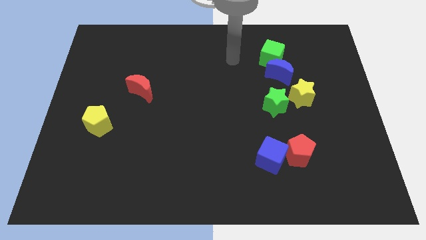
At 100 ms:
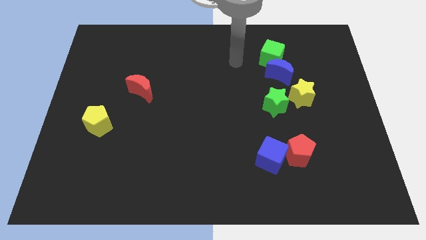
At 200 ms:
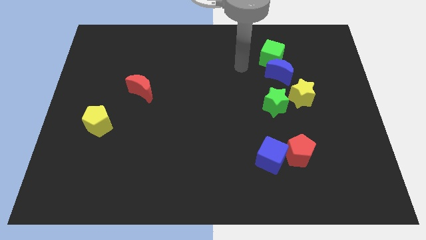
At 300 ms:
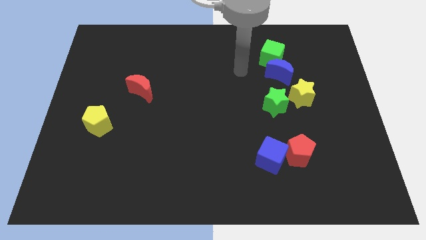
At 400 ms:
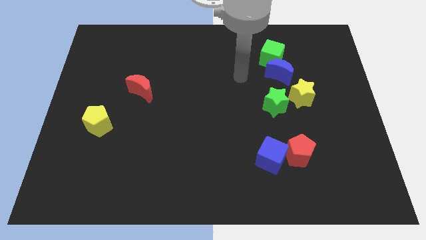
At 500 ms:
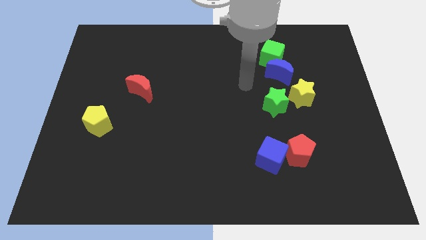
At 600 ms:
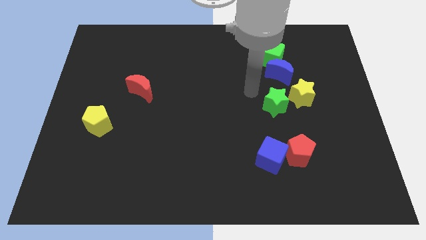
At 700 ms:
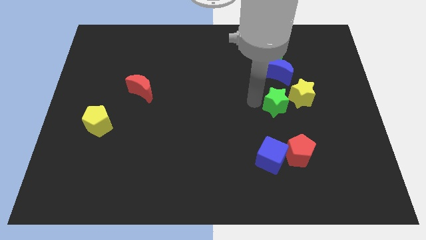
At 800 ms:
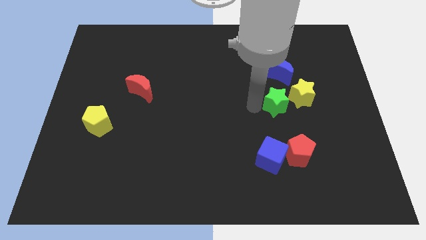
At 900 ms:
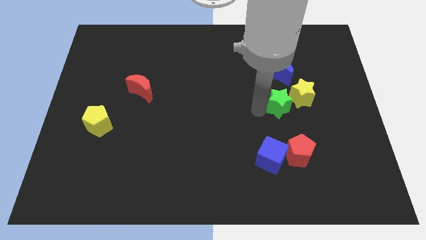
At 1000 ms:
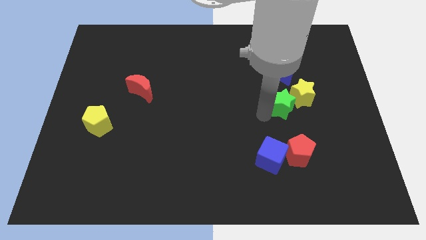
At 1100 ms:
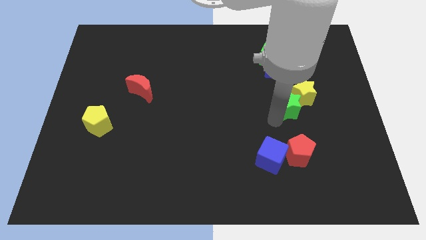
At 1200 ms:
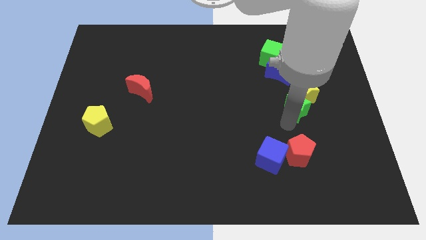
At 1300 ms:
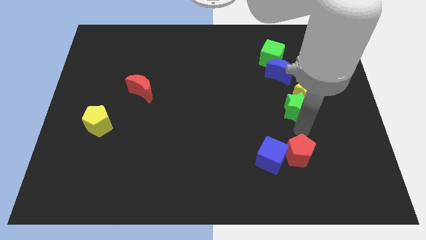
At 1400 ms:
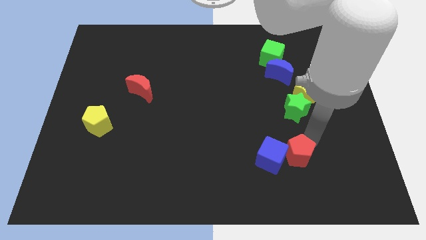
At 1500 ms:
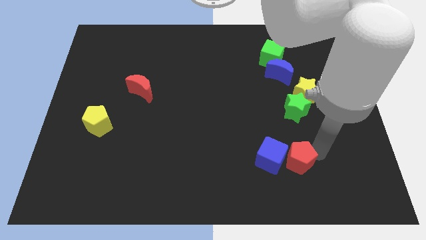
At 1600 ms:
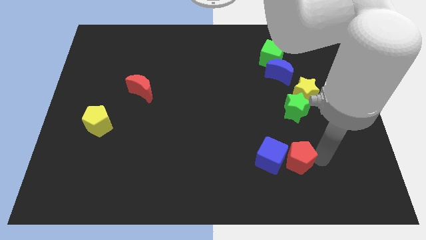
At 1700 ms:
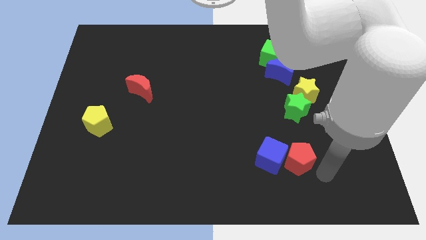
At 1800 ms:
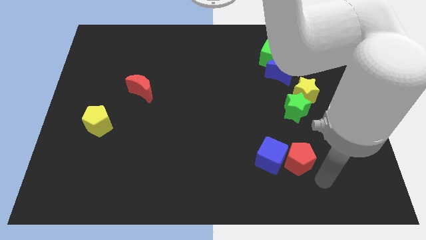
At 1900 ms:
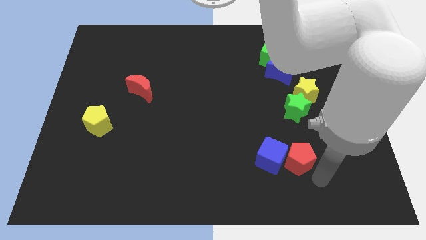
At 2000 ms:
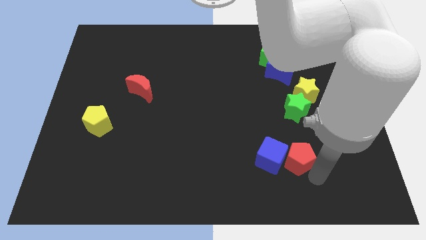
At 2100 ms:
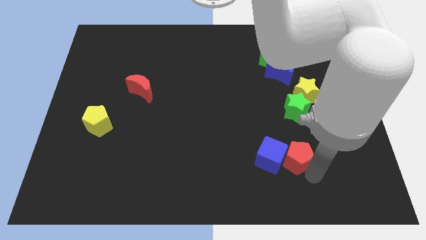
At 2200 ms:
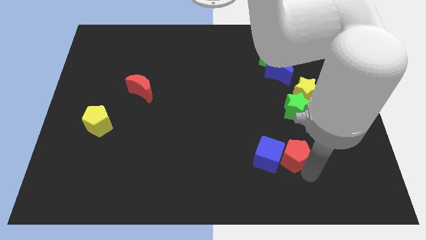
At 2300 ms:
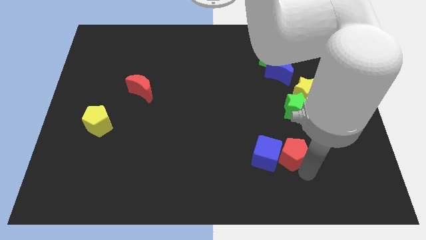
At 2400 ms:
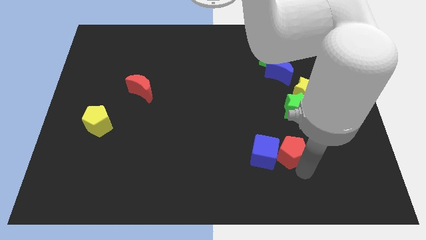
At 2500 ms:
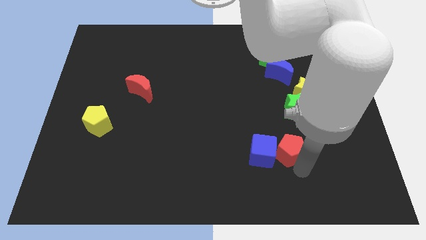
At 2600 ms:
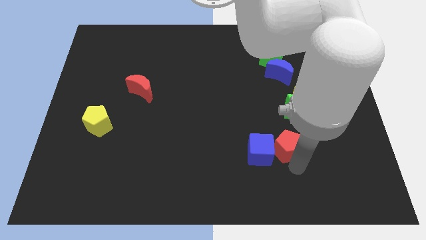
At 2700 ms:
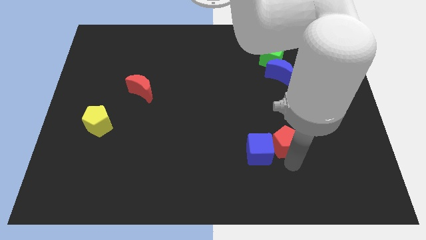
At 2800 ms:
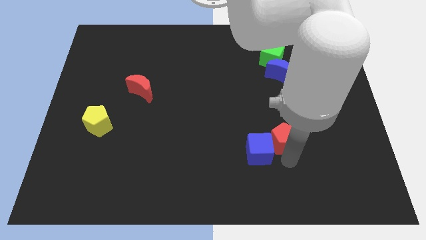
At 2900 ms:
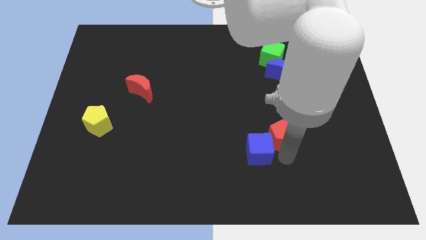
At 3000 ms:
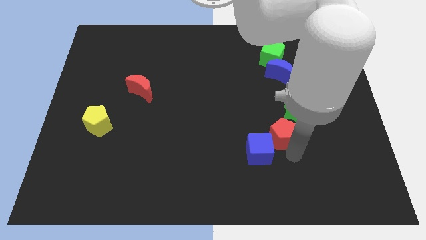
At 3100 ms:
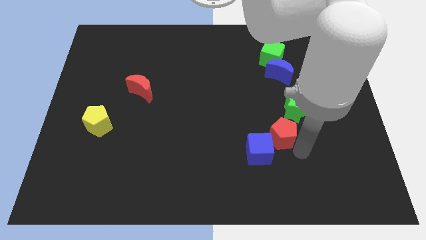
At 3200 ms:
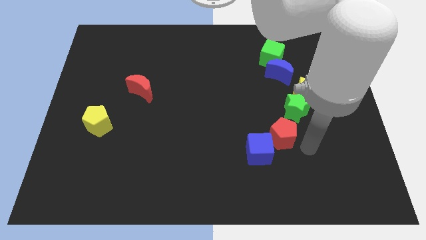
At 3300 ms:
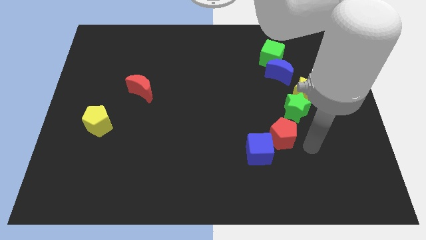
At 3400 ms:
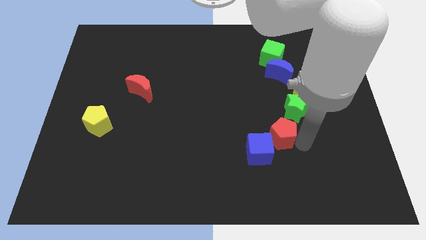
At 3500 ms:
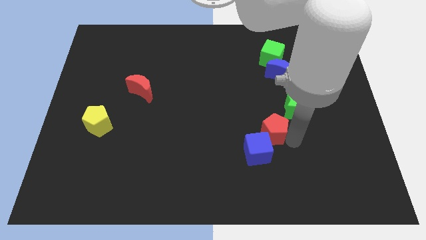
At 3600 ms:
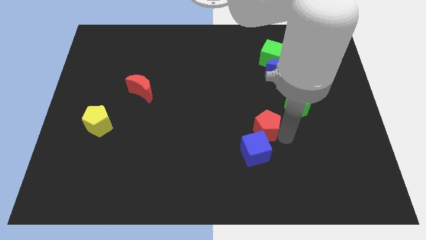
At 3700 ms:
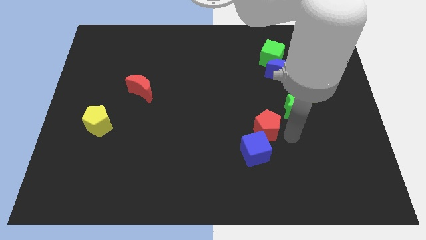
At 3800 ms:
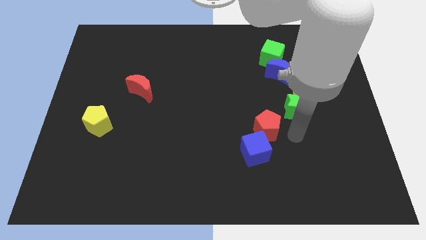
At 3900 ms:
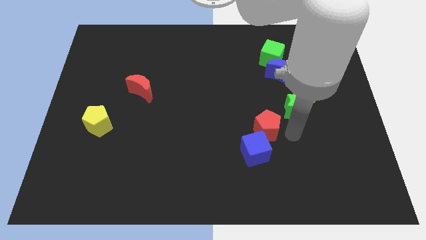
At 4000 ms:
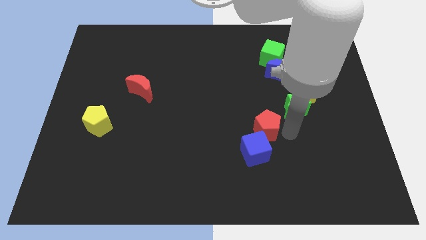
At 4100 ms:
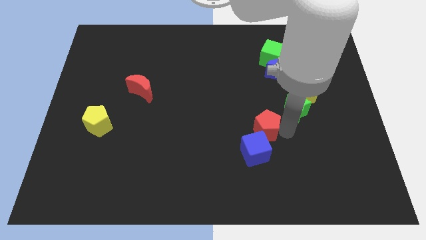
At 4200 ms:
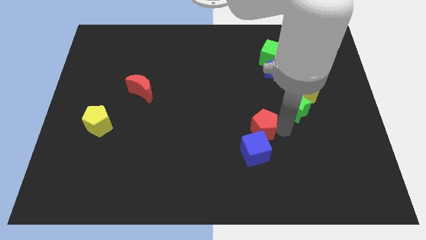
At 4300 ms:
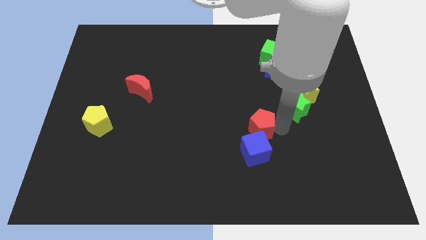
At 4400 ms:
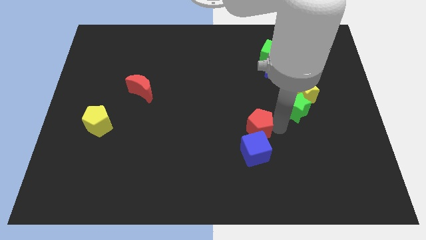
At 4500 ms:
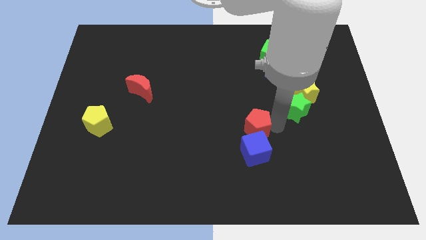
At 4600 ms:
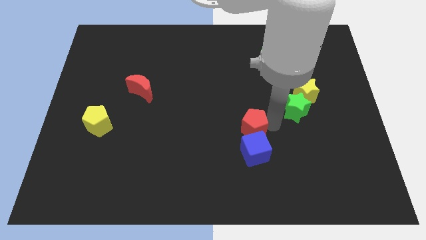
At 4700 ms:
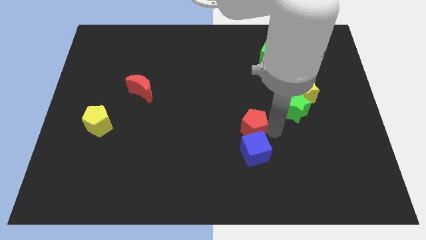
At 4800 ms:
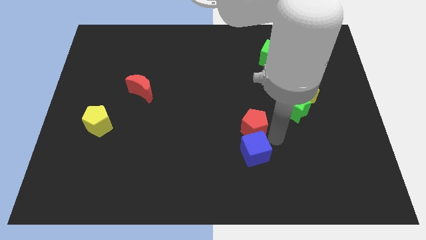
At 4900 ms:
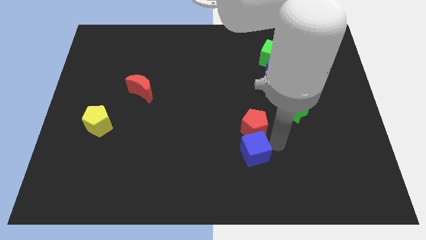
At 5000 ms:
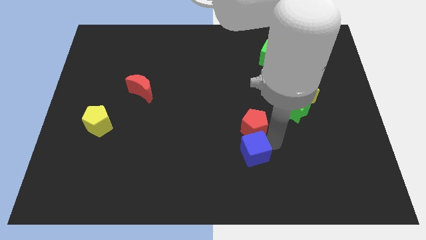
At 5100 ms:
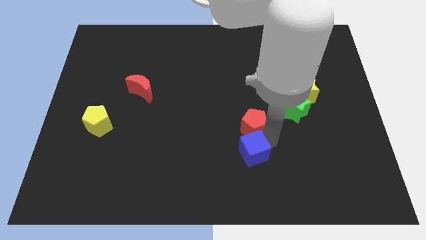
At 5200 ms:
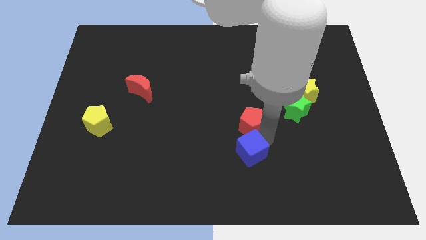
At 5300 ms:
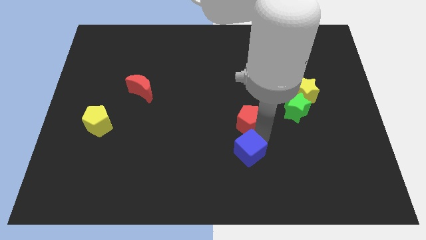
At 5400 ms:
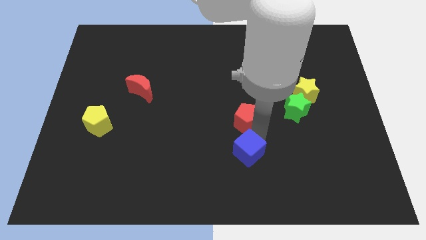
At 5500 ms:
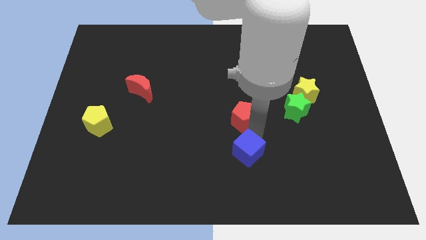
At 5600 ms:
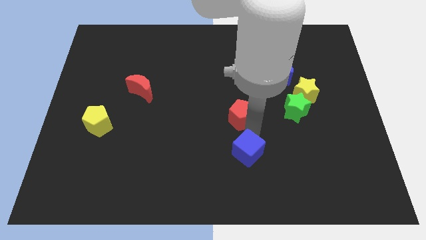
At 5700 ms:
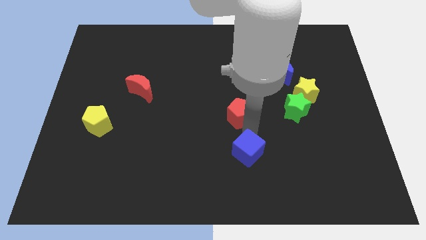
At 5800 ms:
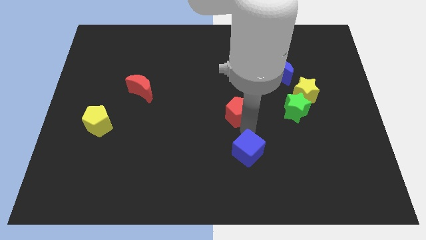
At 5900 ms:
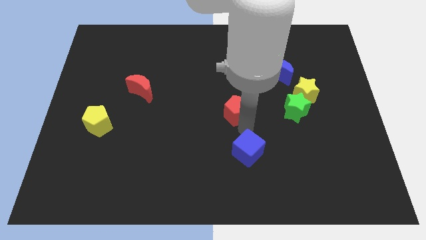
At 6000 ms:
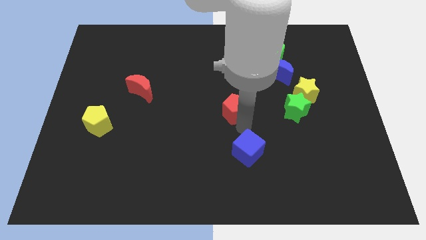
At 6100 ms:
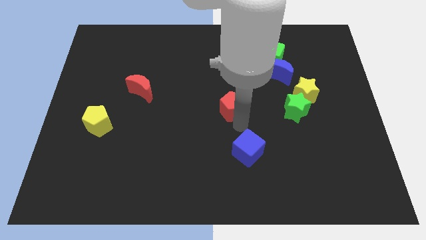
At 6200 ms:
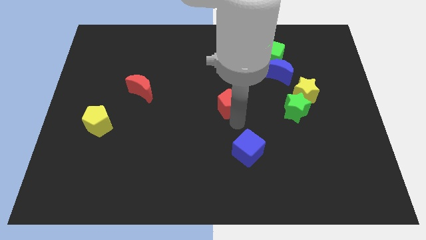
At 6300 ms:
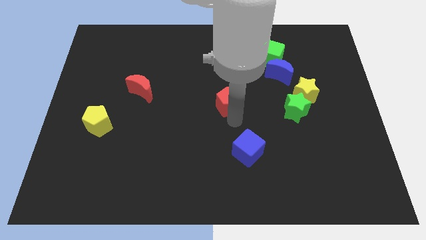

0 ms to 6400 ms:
push the red pentagon diagonally up and to the left

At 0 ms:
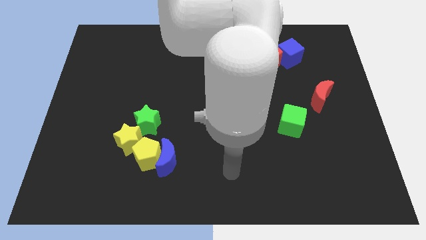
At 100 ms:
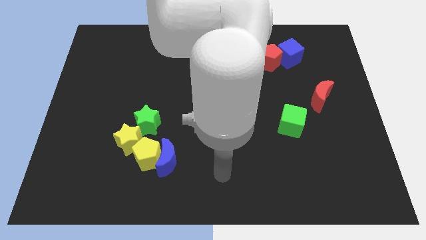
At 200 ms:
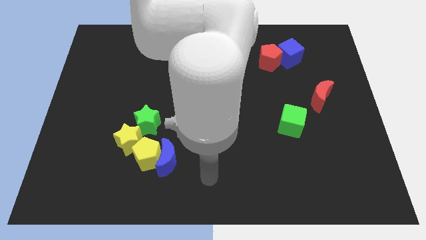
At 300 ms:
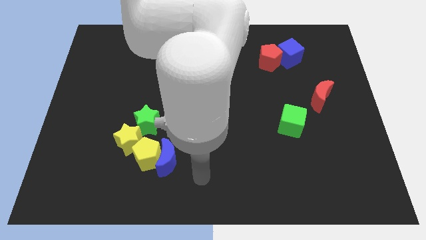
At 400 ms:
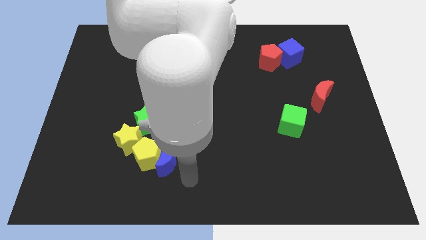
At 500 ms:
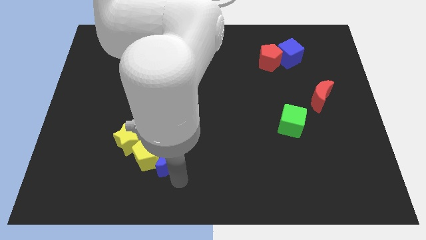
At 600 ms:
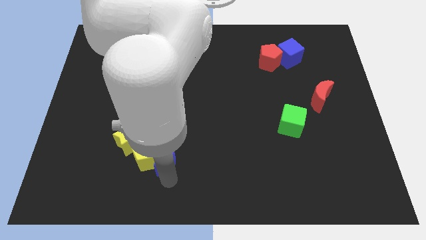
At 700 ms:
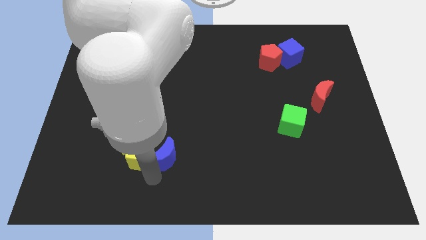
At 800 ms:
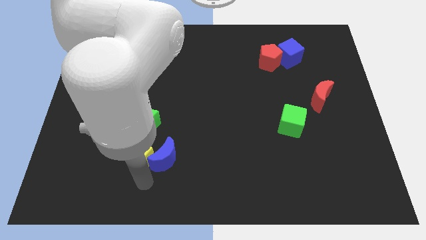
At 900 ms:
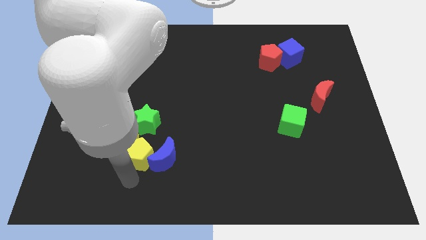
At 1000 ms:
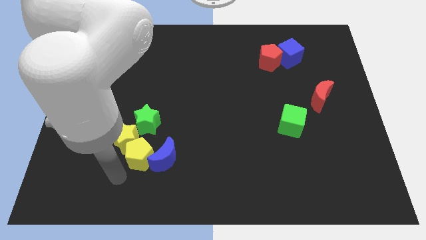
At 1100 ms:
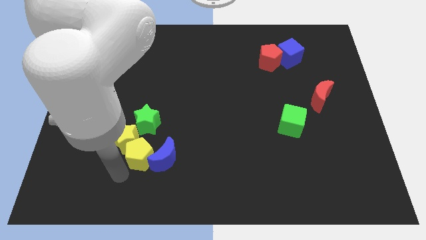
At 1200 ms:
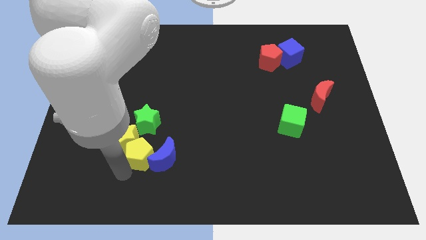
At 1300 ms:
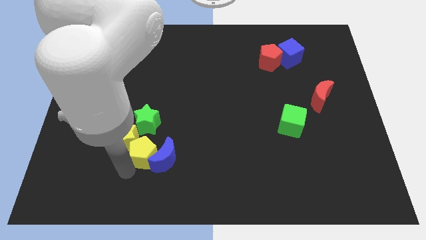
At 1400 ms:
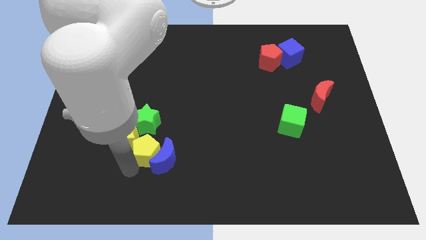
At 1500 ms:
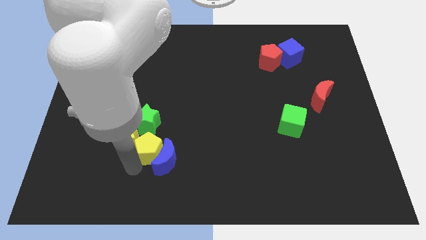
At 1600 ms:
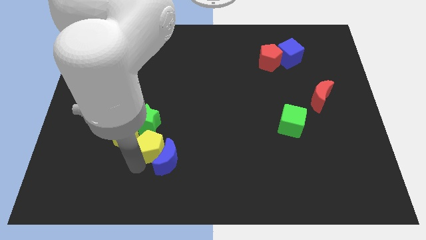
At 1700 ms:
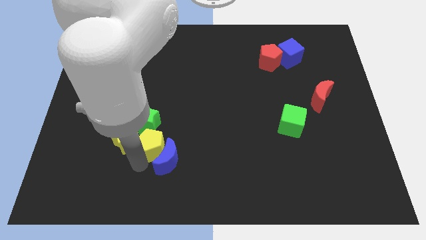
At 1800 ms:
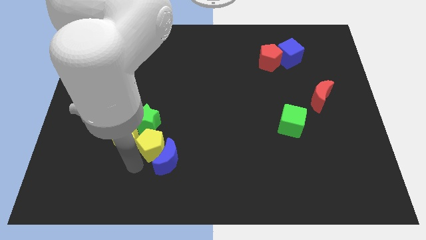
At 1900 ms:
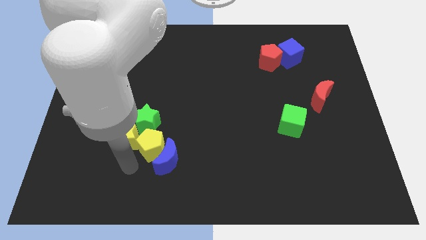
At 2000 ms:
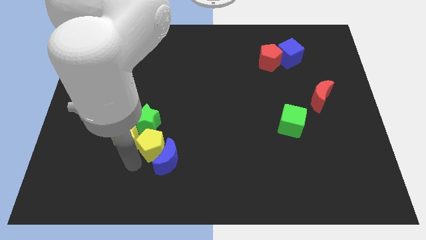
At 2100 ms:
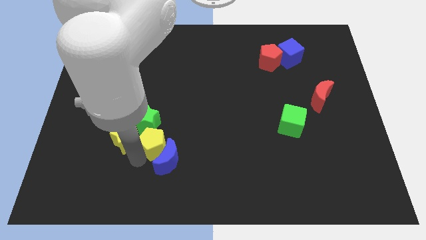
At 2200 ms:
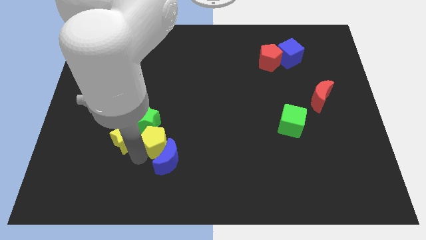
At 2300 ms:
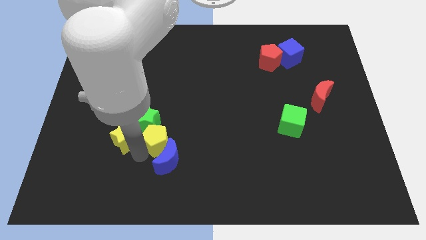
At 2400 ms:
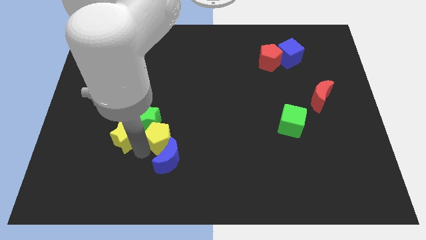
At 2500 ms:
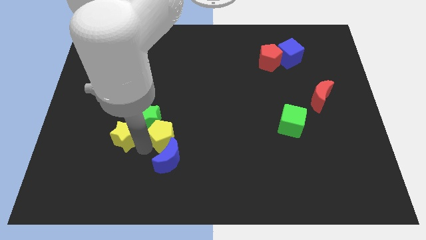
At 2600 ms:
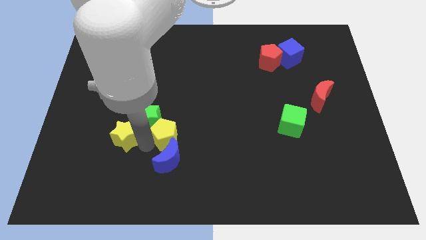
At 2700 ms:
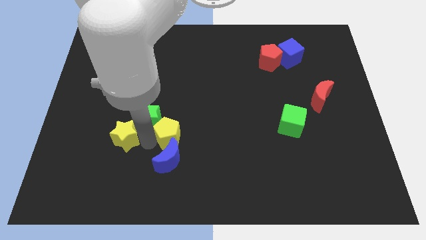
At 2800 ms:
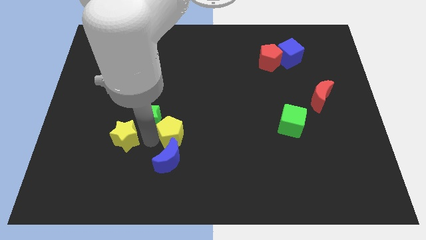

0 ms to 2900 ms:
move the yellow pentagon slightly upwards and to the right diagonally
